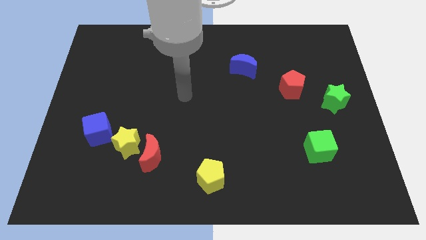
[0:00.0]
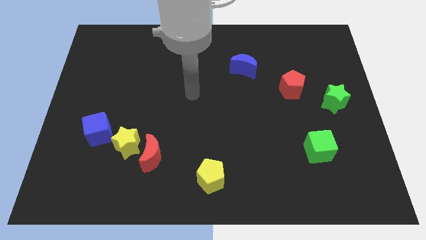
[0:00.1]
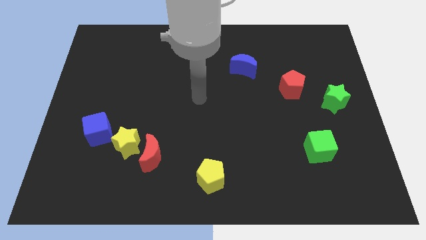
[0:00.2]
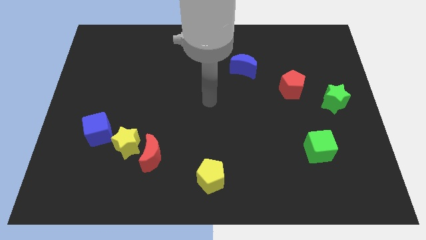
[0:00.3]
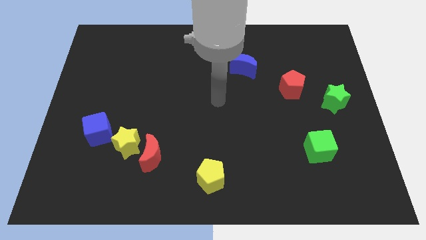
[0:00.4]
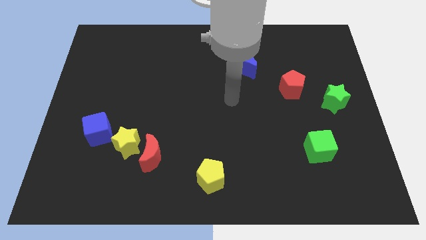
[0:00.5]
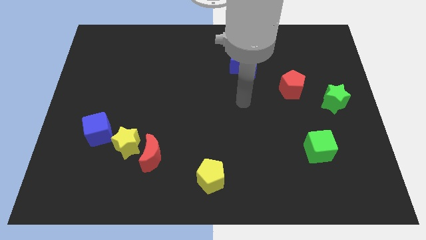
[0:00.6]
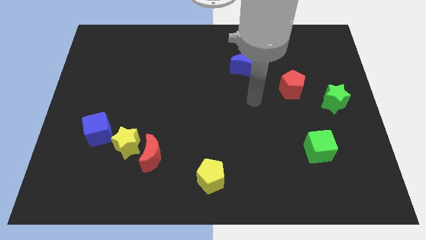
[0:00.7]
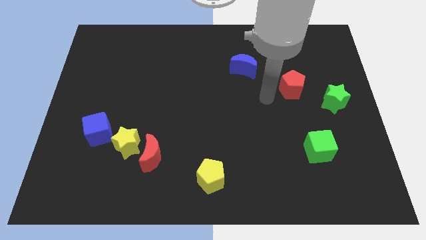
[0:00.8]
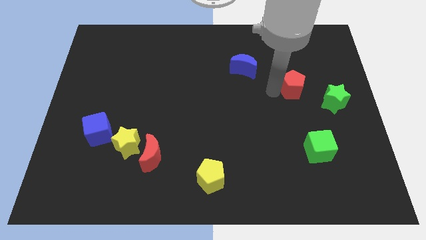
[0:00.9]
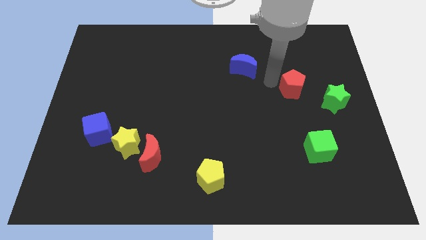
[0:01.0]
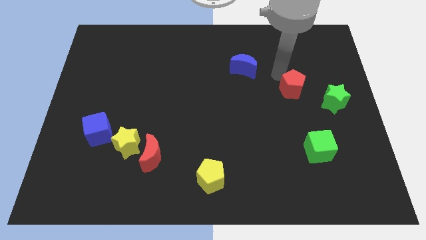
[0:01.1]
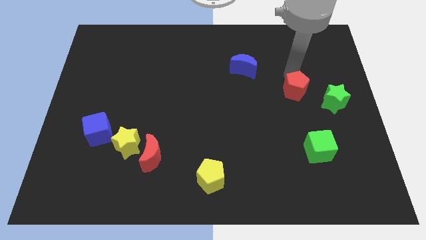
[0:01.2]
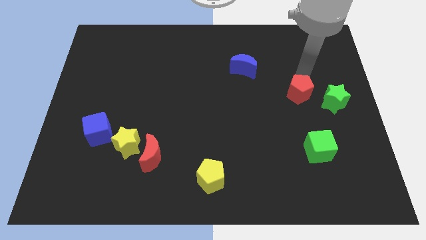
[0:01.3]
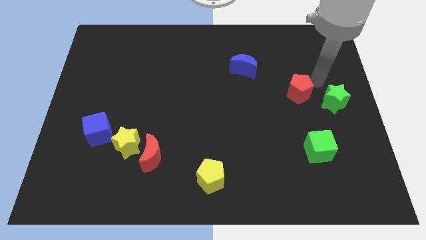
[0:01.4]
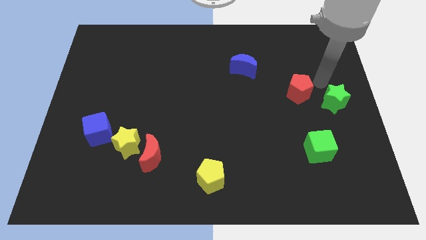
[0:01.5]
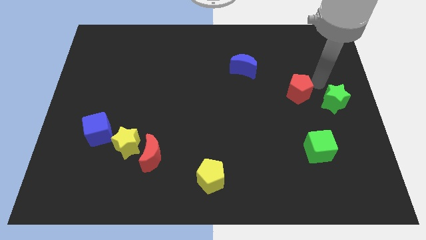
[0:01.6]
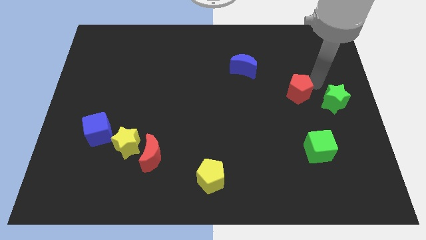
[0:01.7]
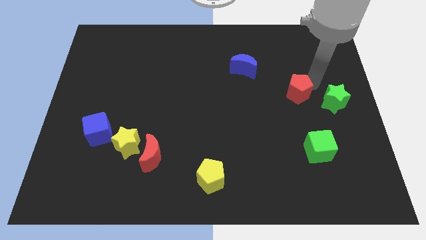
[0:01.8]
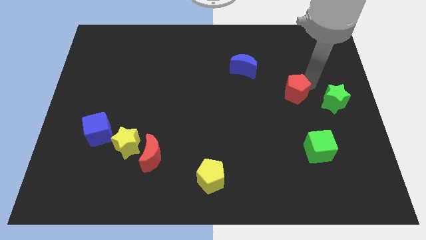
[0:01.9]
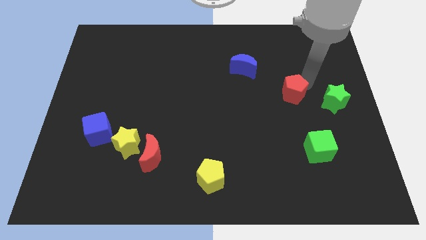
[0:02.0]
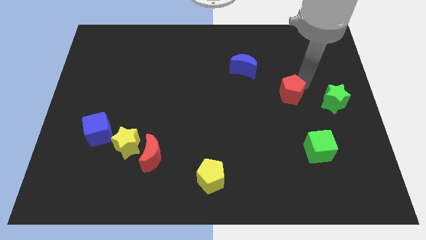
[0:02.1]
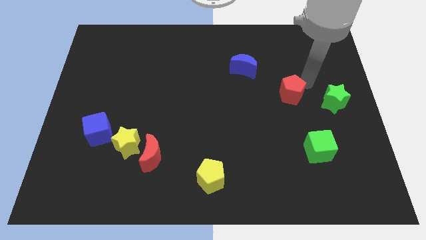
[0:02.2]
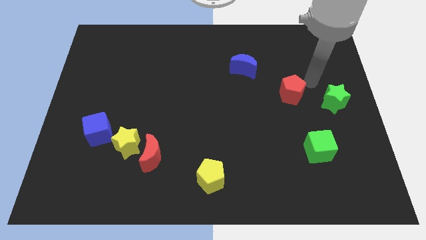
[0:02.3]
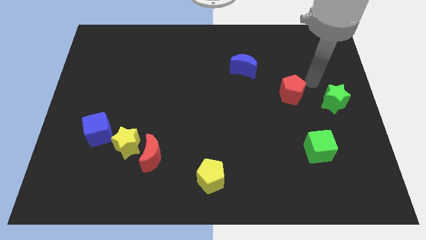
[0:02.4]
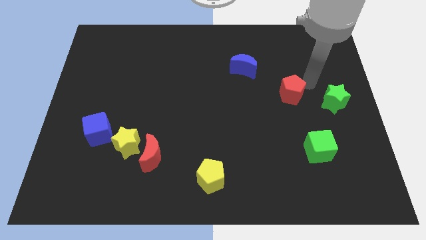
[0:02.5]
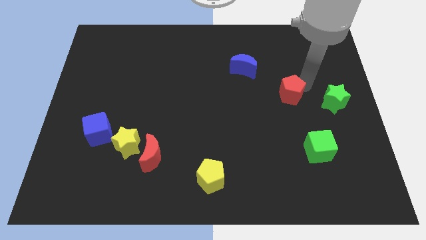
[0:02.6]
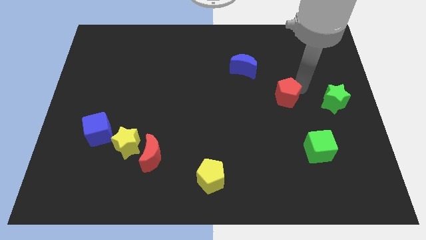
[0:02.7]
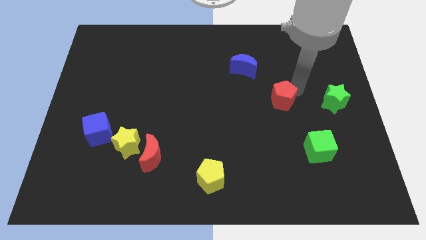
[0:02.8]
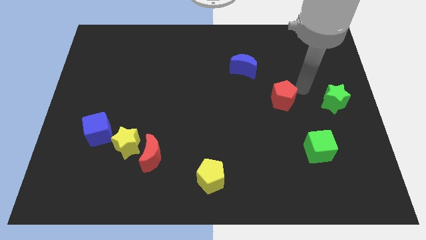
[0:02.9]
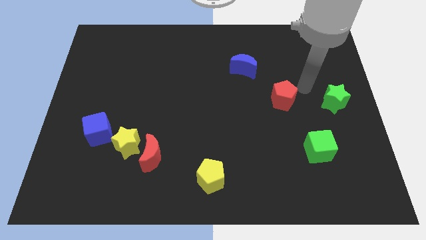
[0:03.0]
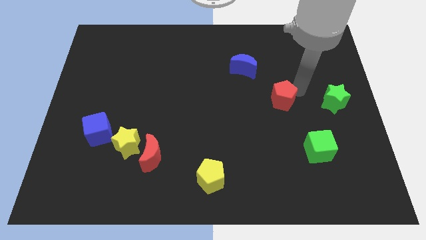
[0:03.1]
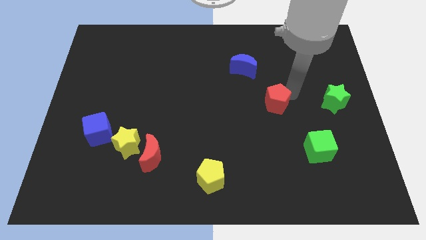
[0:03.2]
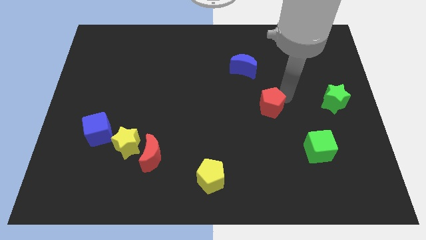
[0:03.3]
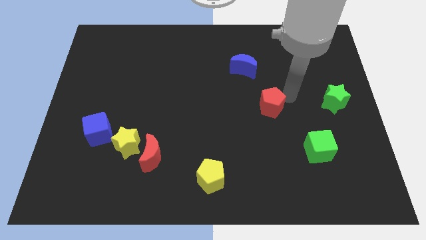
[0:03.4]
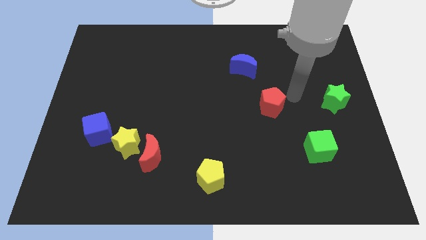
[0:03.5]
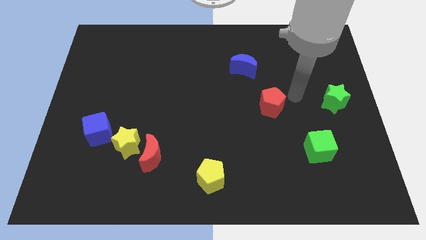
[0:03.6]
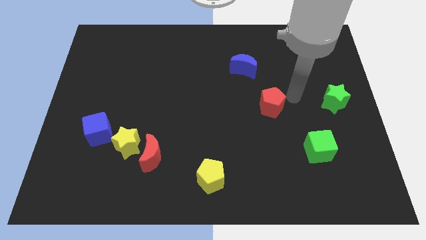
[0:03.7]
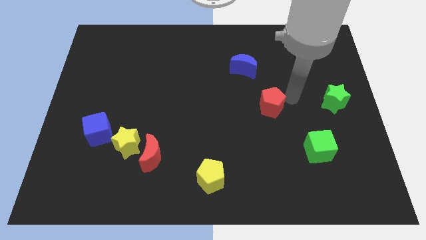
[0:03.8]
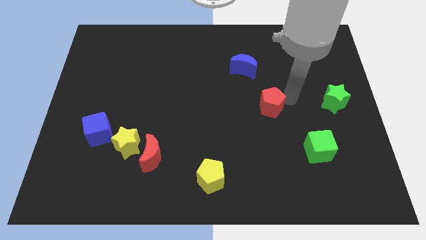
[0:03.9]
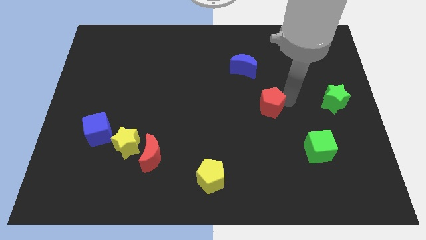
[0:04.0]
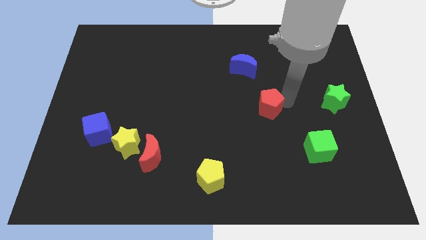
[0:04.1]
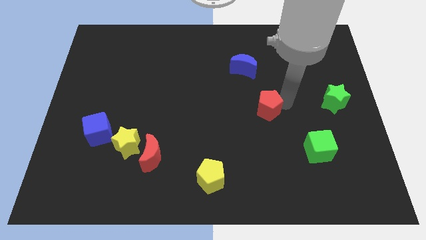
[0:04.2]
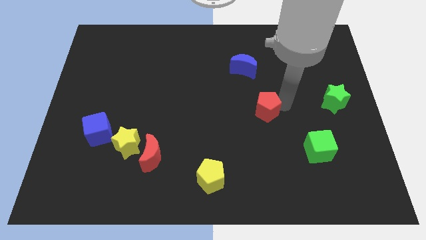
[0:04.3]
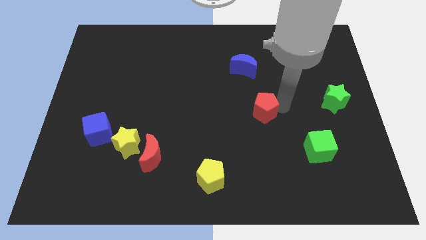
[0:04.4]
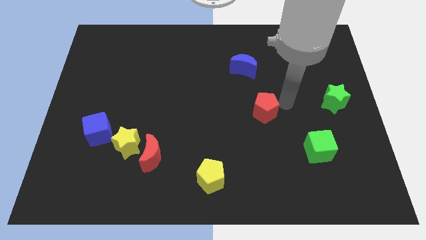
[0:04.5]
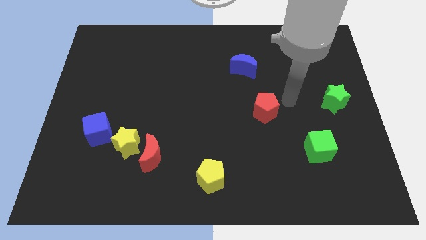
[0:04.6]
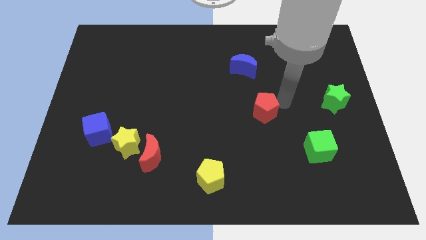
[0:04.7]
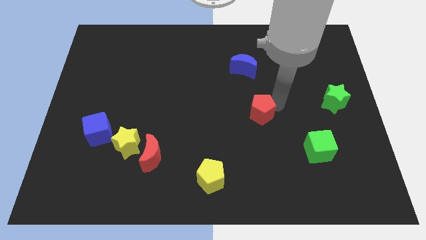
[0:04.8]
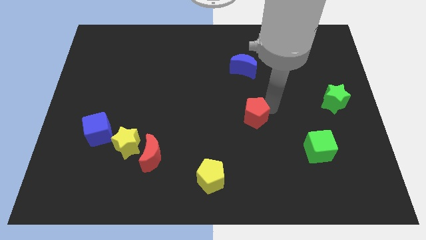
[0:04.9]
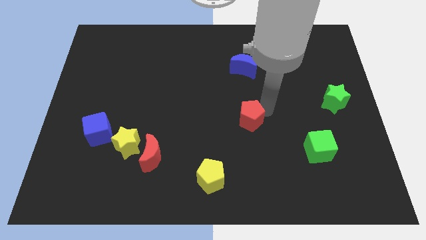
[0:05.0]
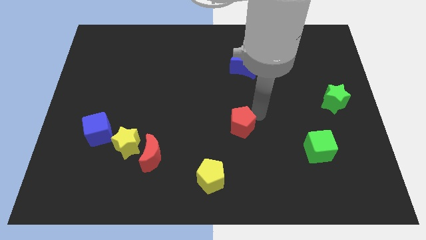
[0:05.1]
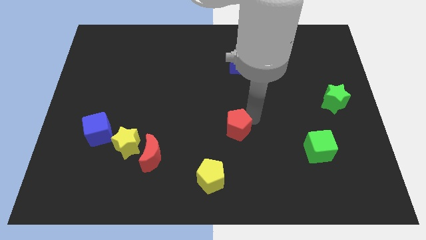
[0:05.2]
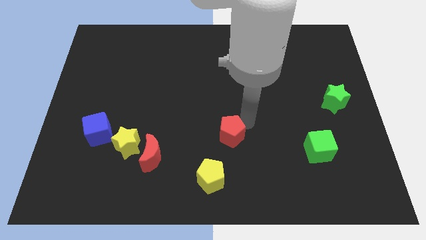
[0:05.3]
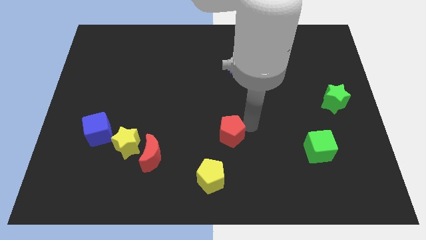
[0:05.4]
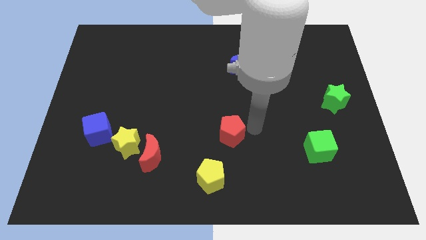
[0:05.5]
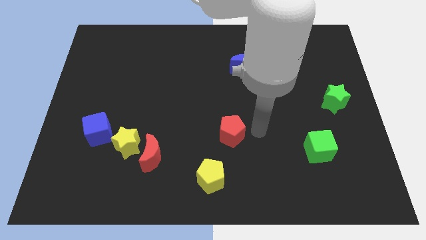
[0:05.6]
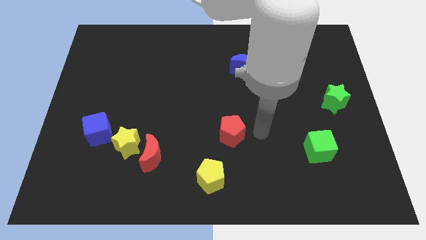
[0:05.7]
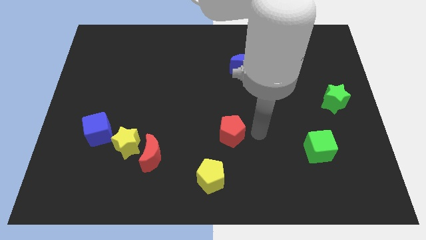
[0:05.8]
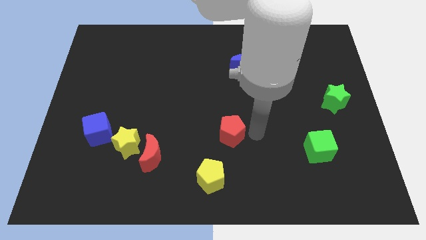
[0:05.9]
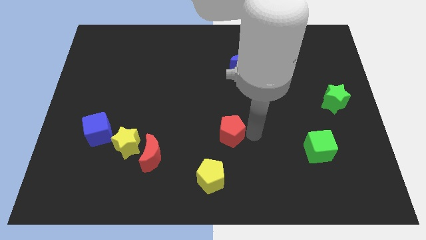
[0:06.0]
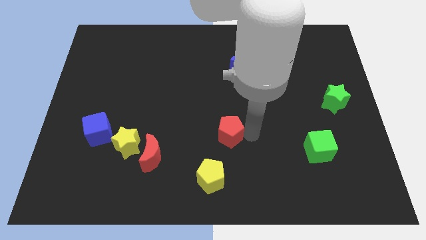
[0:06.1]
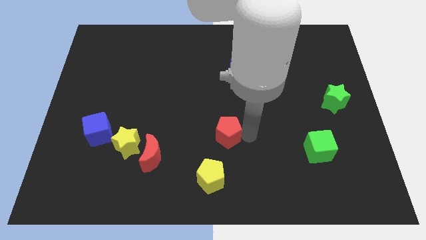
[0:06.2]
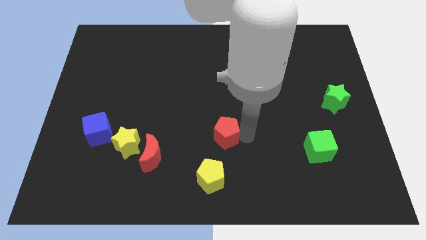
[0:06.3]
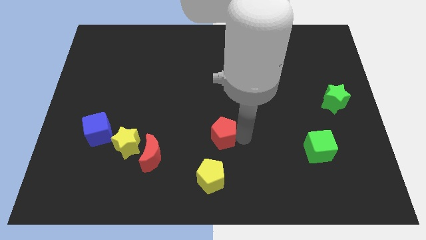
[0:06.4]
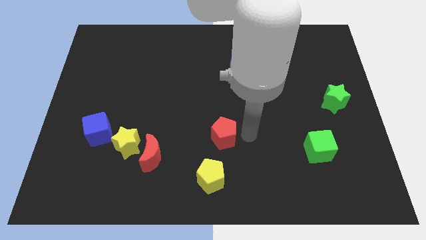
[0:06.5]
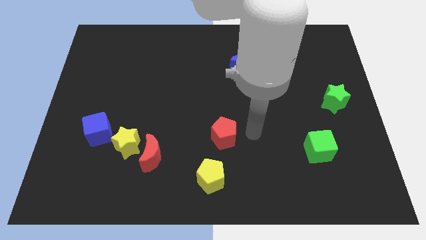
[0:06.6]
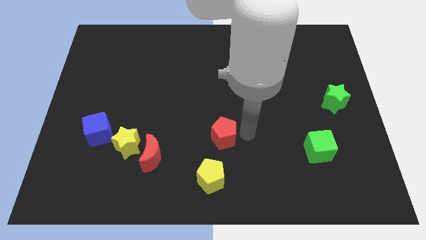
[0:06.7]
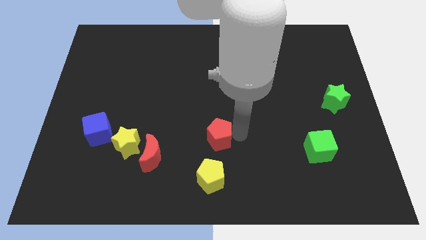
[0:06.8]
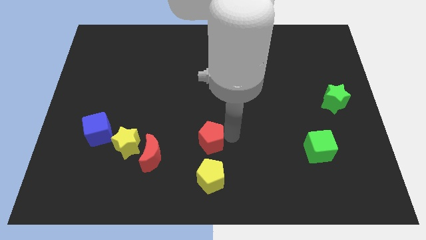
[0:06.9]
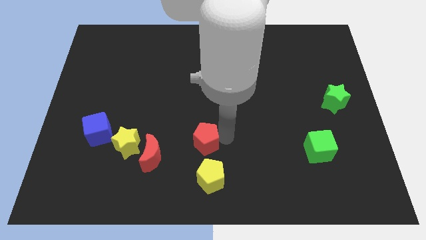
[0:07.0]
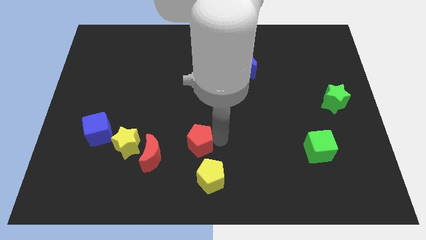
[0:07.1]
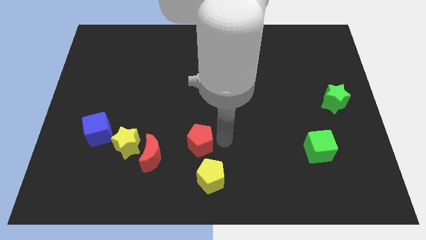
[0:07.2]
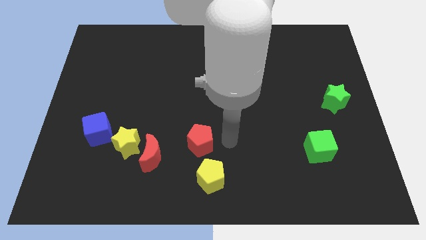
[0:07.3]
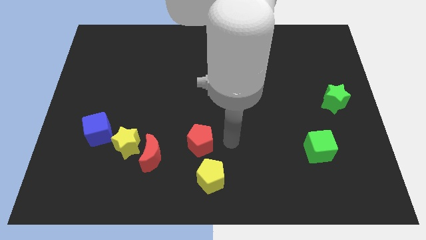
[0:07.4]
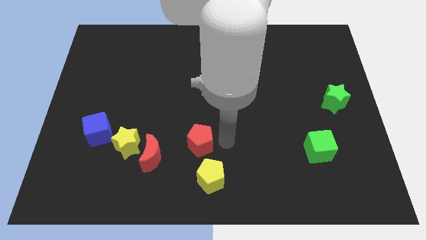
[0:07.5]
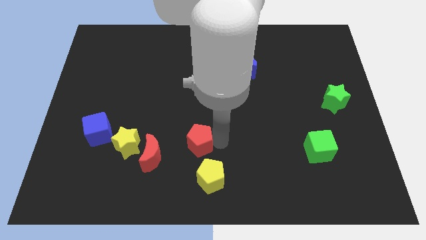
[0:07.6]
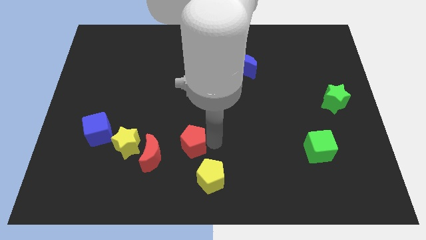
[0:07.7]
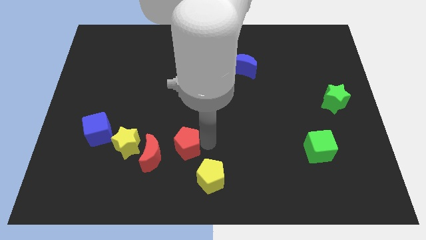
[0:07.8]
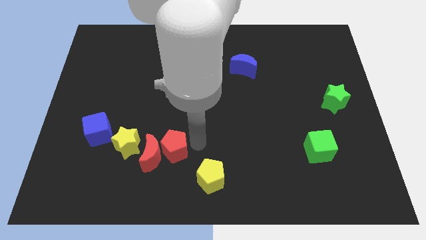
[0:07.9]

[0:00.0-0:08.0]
push the red pentagon next to the red moon
